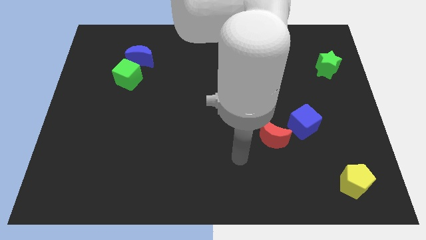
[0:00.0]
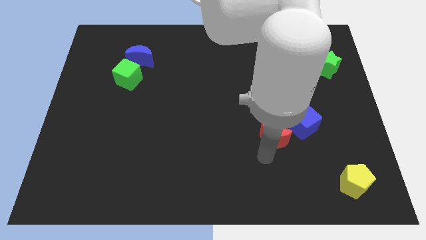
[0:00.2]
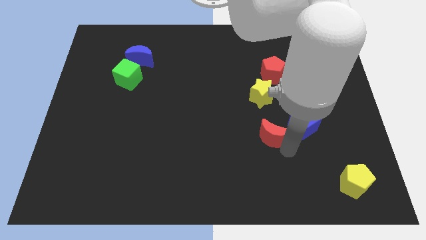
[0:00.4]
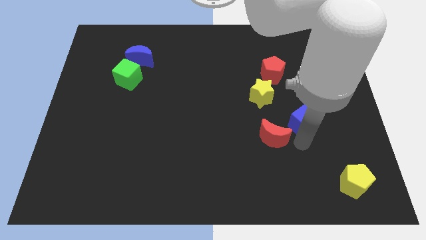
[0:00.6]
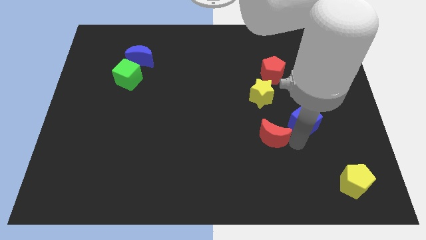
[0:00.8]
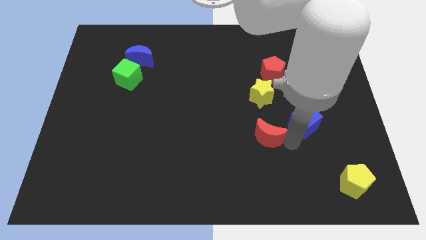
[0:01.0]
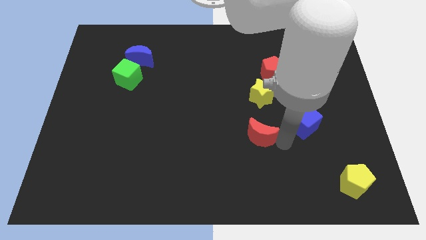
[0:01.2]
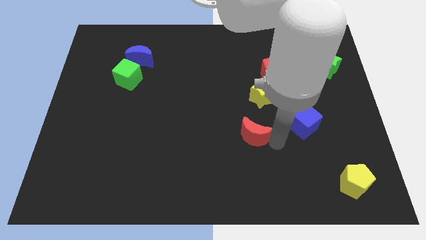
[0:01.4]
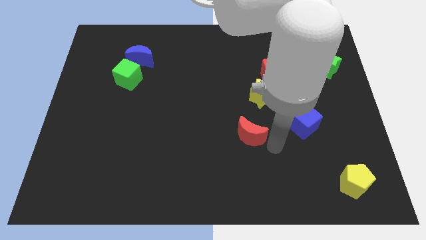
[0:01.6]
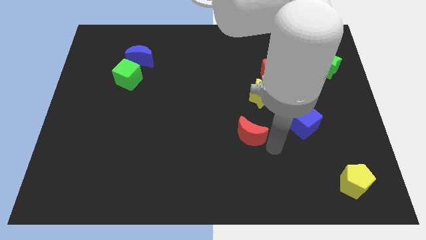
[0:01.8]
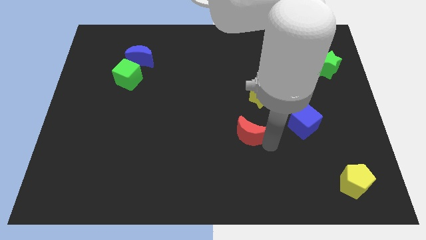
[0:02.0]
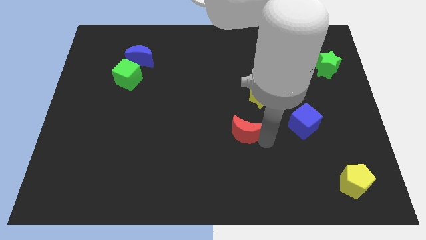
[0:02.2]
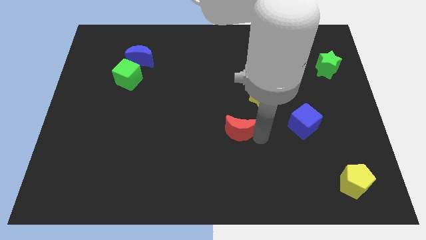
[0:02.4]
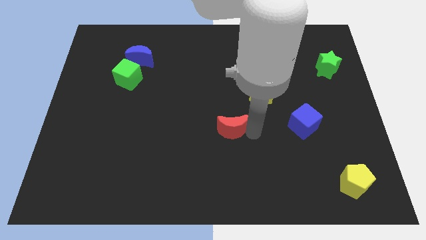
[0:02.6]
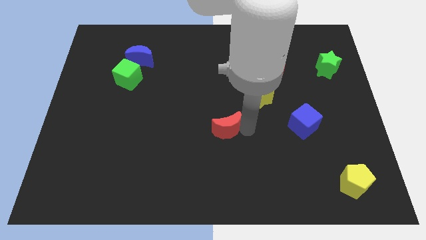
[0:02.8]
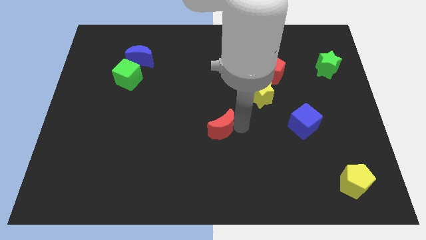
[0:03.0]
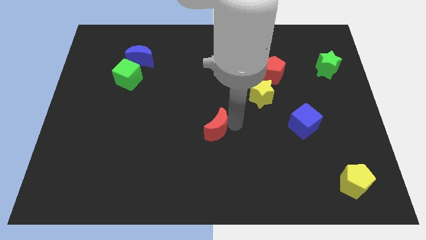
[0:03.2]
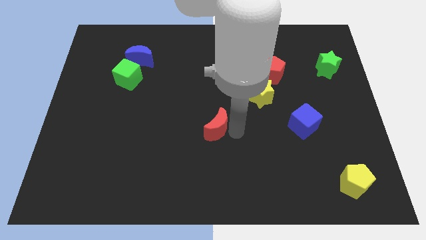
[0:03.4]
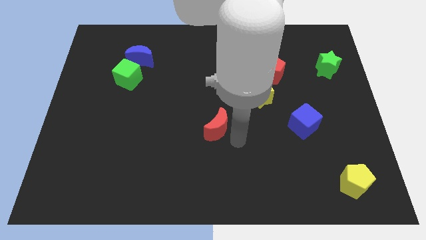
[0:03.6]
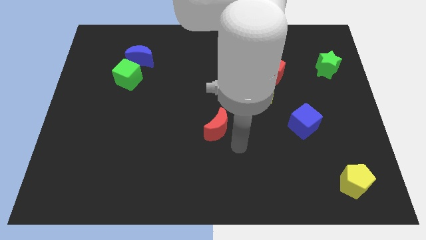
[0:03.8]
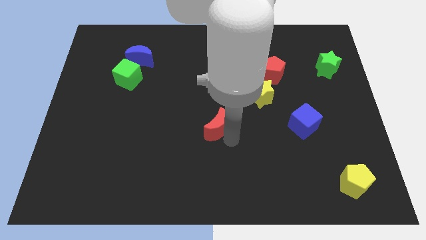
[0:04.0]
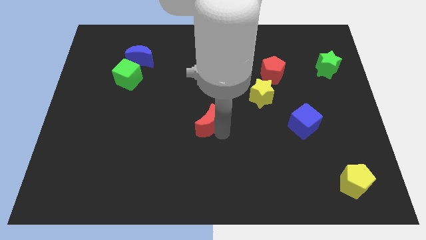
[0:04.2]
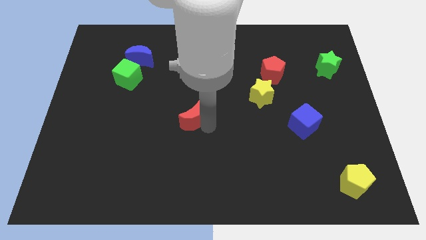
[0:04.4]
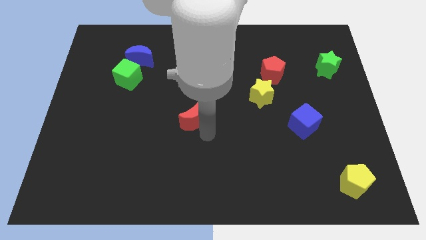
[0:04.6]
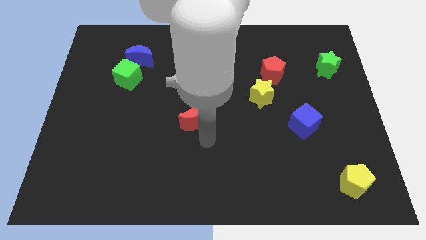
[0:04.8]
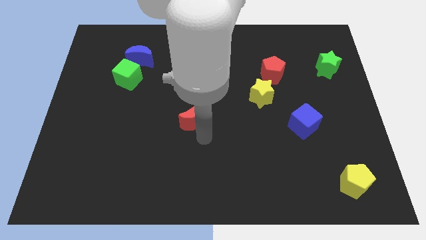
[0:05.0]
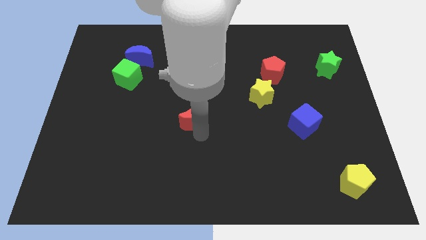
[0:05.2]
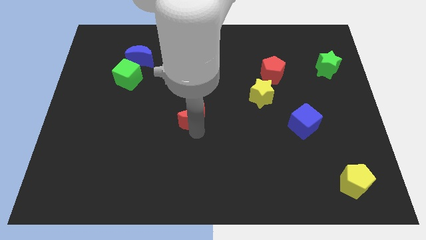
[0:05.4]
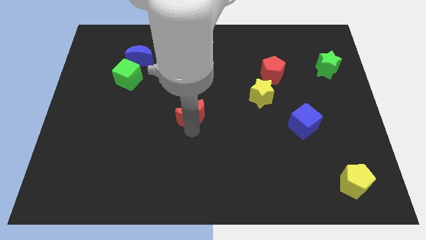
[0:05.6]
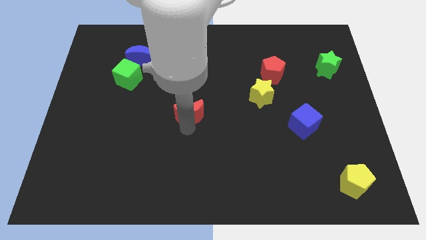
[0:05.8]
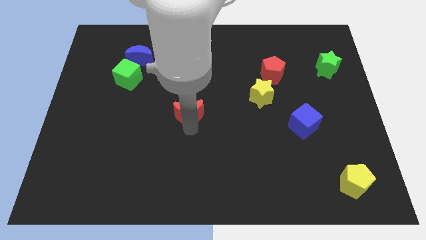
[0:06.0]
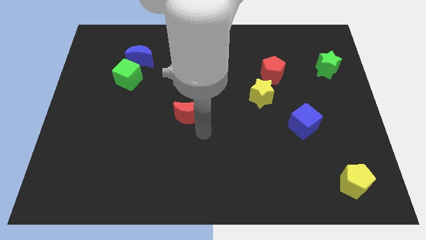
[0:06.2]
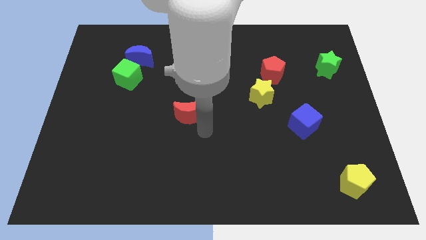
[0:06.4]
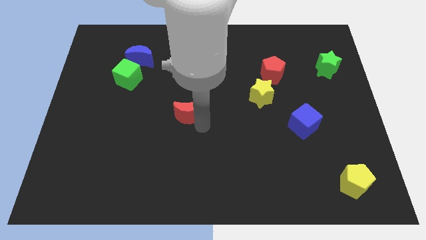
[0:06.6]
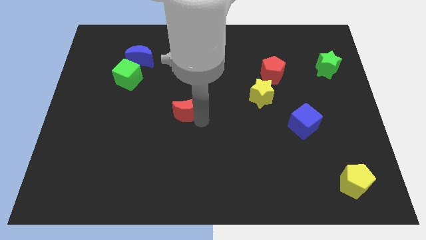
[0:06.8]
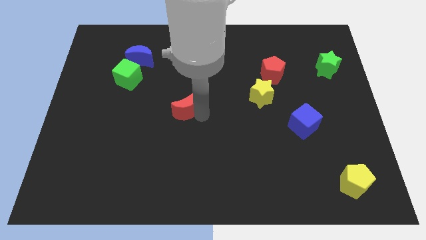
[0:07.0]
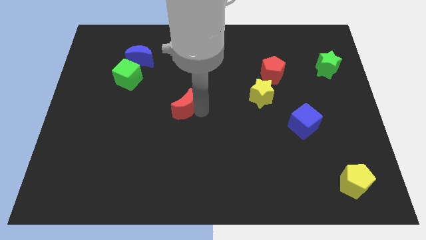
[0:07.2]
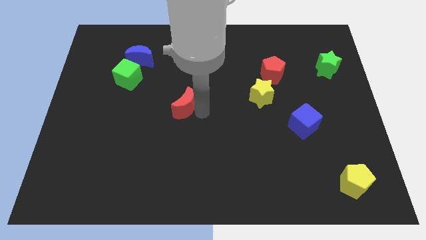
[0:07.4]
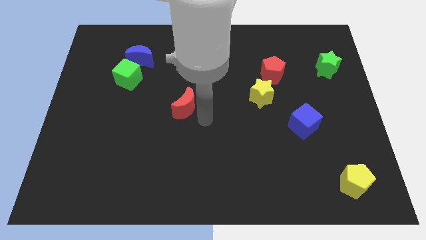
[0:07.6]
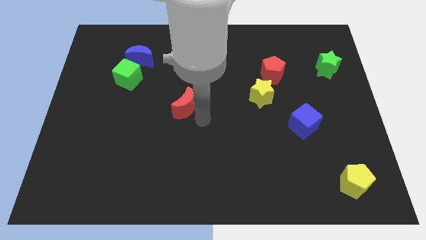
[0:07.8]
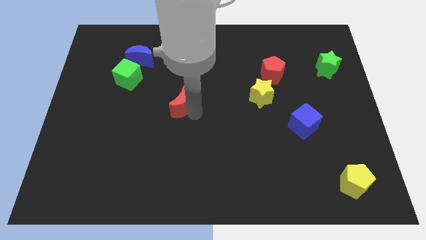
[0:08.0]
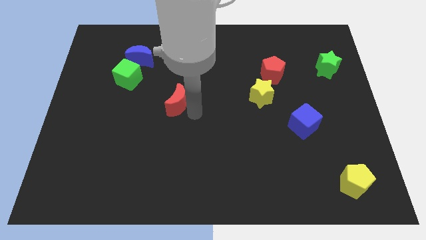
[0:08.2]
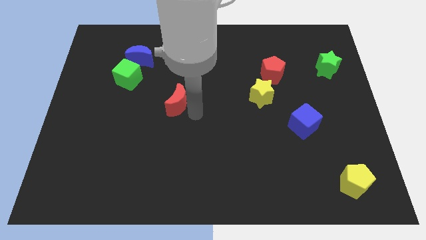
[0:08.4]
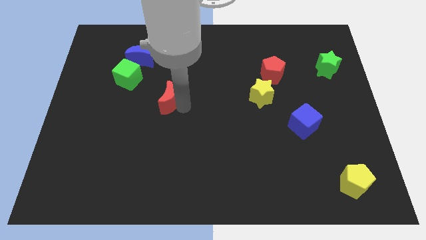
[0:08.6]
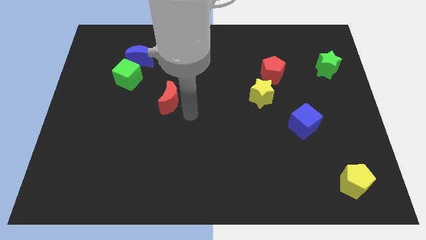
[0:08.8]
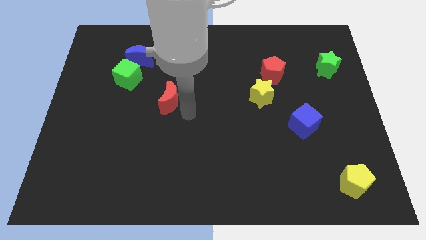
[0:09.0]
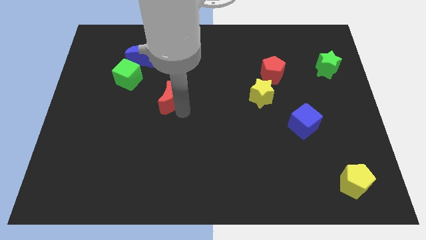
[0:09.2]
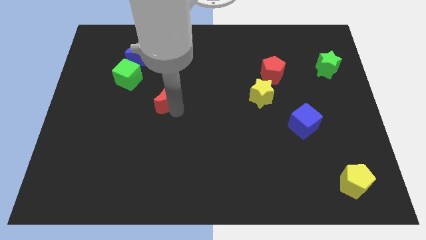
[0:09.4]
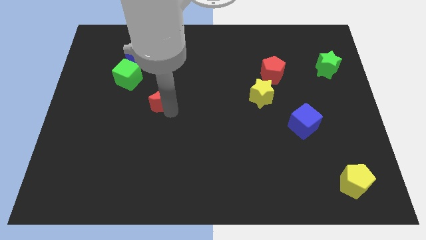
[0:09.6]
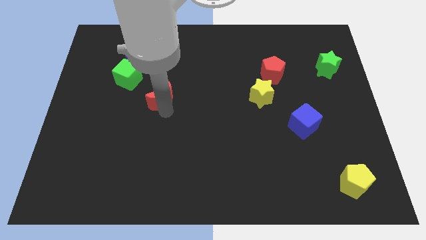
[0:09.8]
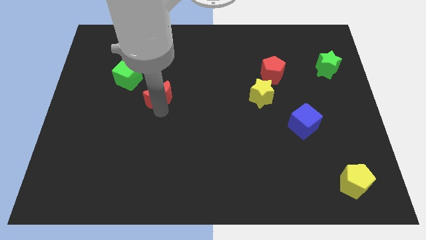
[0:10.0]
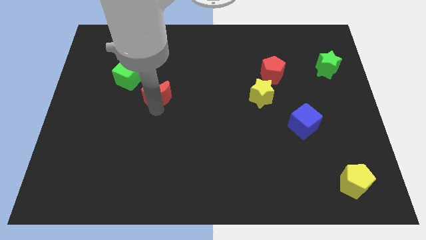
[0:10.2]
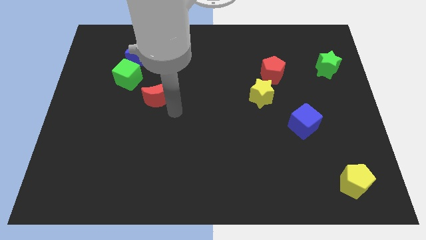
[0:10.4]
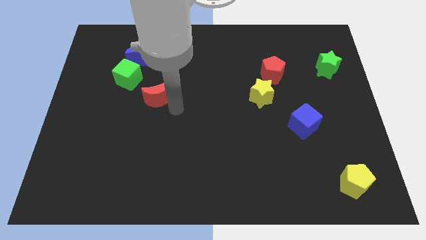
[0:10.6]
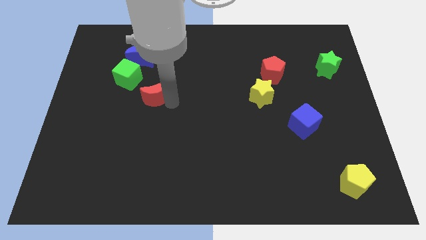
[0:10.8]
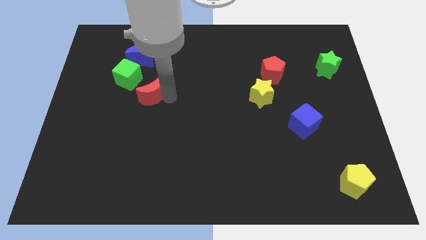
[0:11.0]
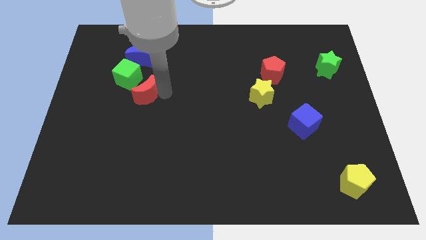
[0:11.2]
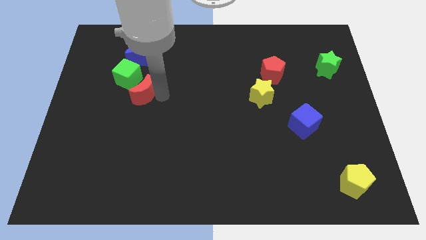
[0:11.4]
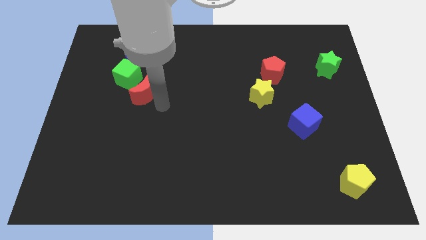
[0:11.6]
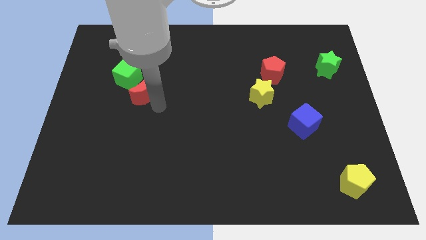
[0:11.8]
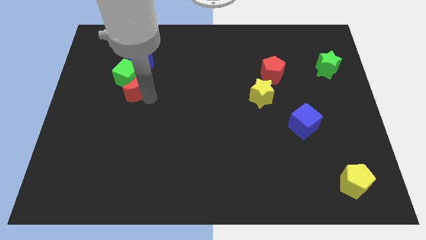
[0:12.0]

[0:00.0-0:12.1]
move the red moon to the green cube

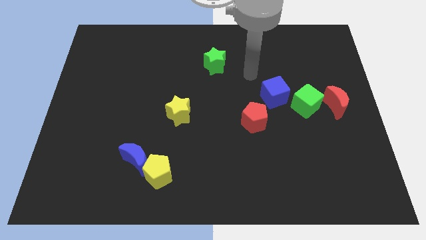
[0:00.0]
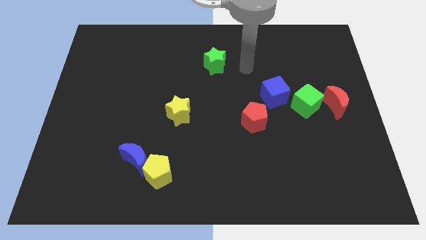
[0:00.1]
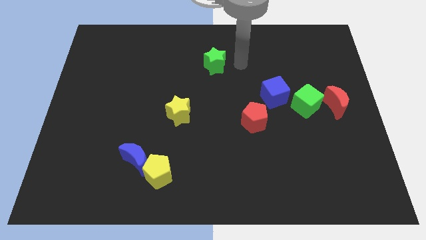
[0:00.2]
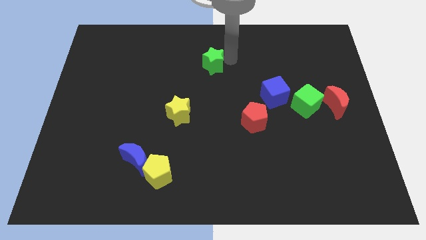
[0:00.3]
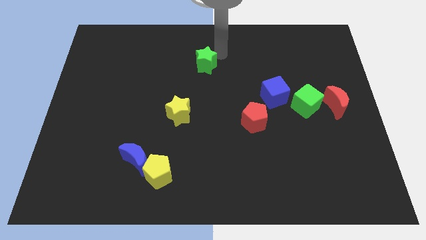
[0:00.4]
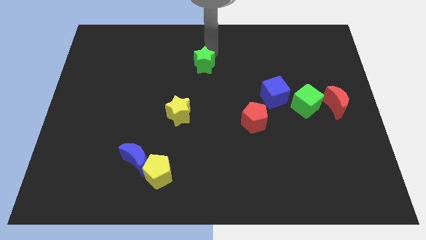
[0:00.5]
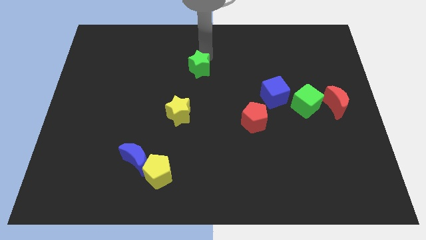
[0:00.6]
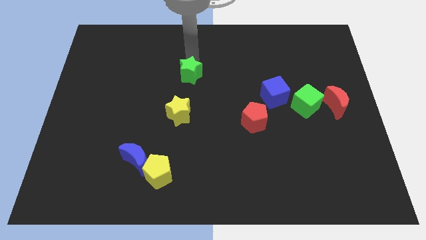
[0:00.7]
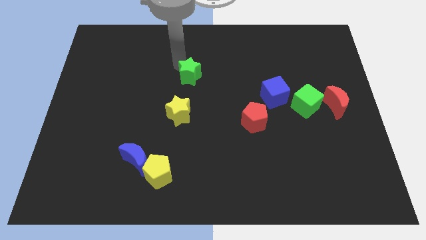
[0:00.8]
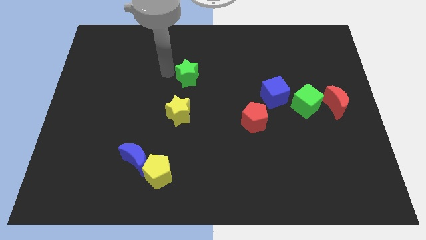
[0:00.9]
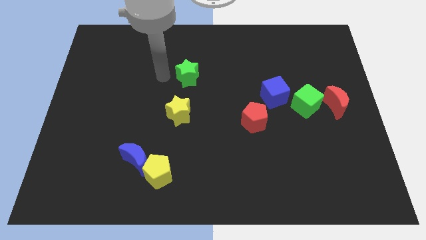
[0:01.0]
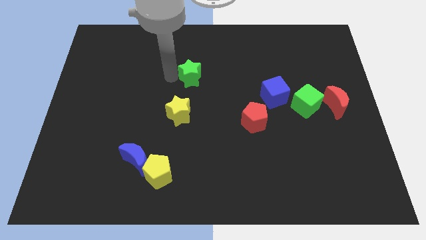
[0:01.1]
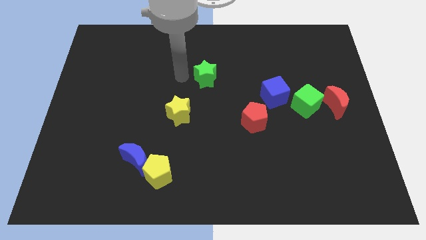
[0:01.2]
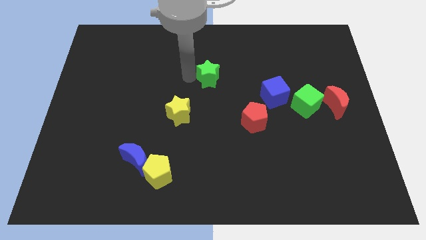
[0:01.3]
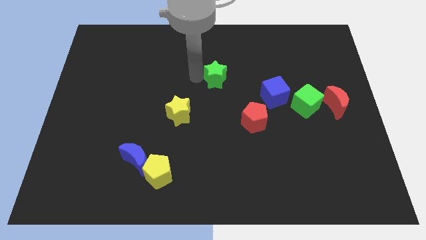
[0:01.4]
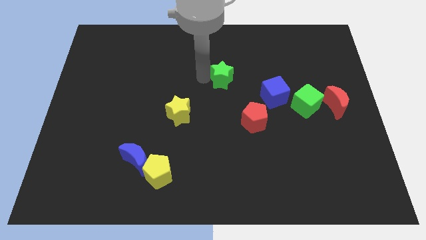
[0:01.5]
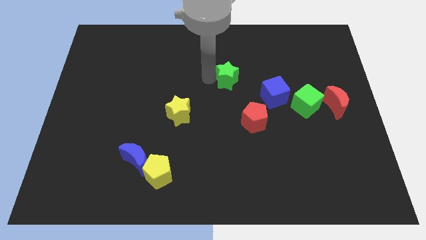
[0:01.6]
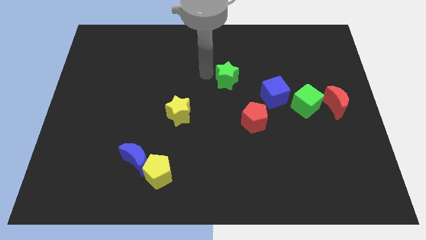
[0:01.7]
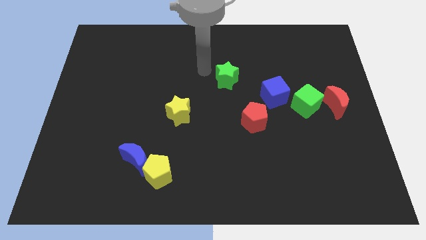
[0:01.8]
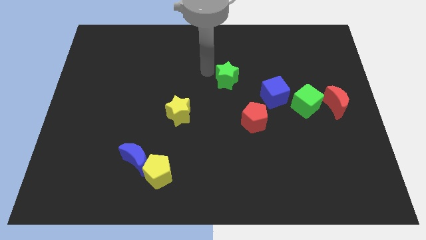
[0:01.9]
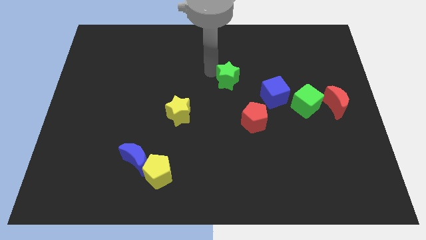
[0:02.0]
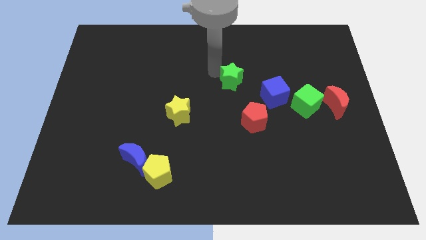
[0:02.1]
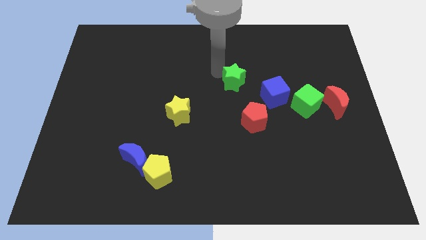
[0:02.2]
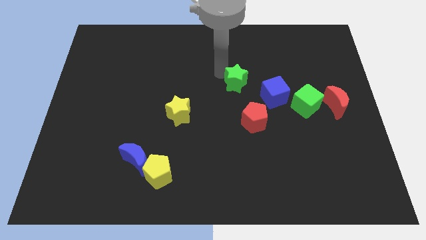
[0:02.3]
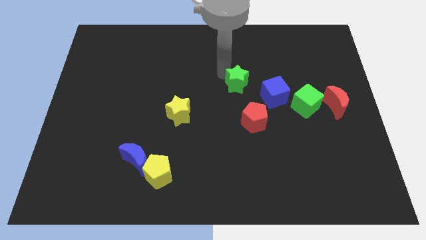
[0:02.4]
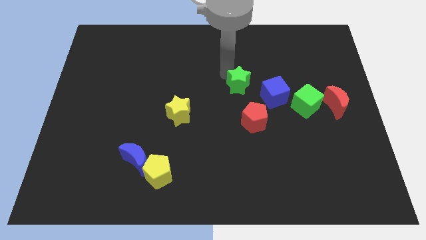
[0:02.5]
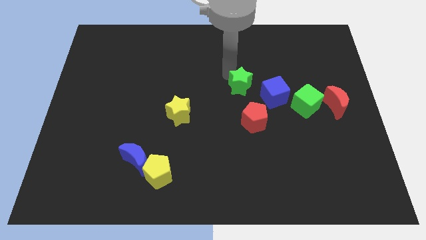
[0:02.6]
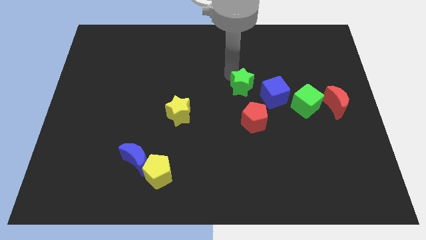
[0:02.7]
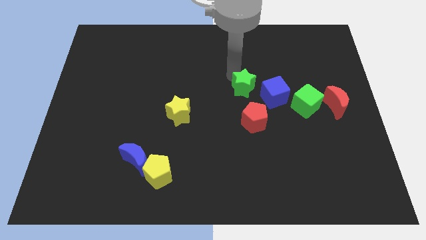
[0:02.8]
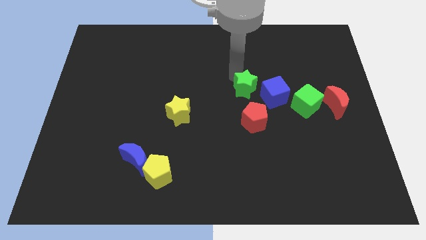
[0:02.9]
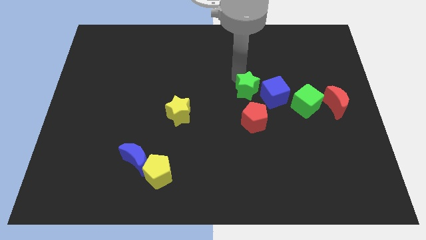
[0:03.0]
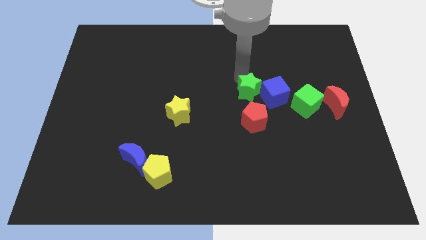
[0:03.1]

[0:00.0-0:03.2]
slide the green star next to the blue cube
